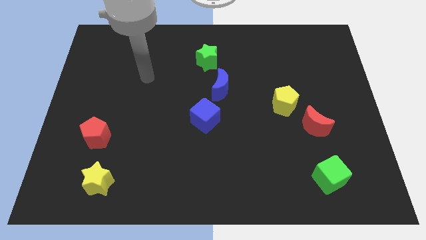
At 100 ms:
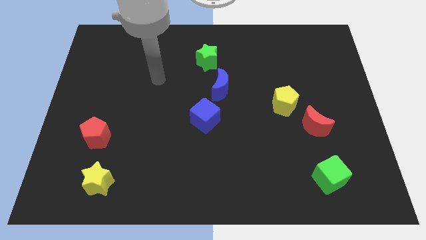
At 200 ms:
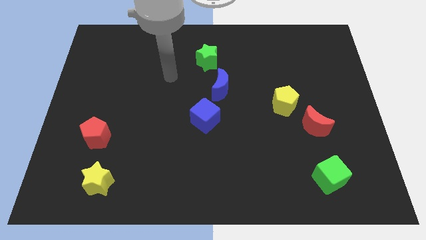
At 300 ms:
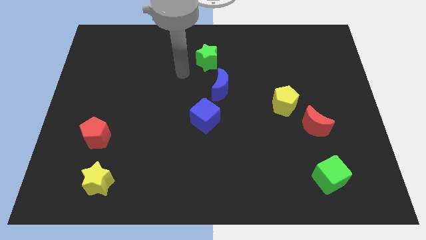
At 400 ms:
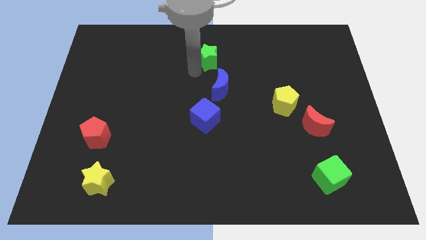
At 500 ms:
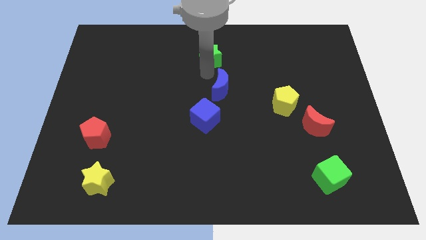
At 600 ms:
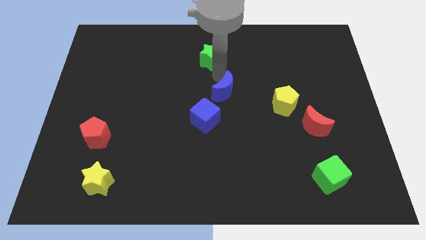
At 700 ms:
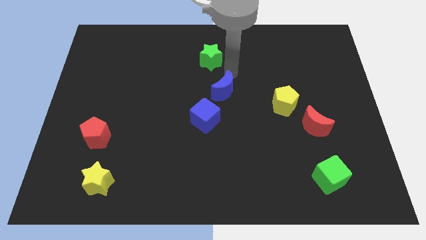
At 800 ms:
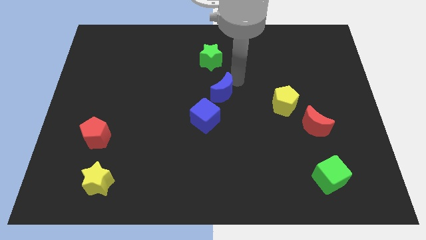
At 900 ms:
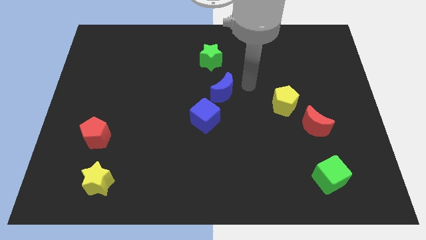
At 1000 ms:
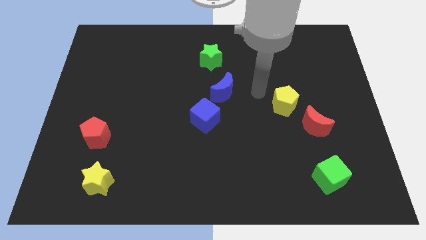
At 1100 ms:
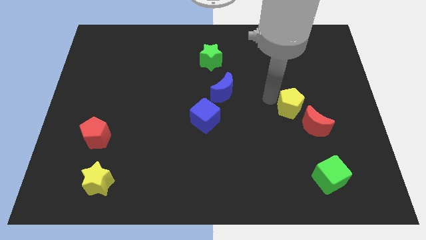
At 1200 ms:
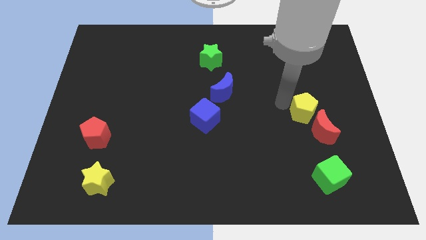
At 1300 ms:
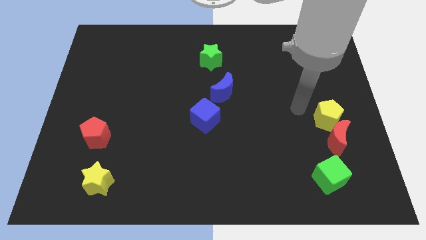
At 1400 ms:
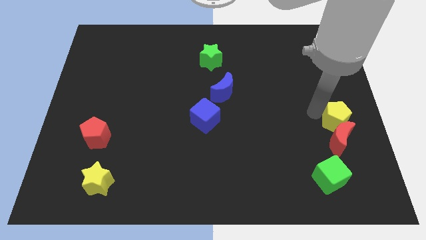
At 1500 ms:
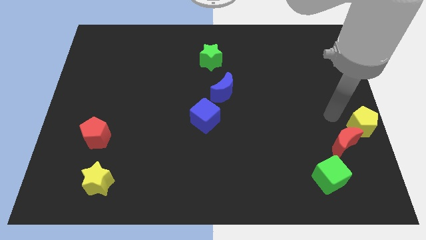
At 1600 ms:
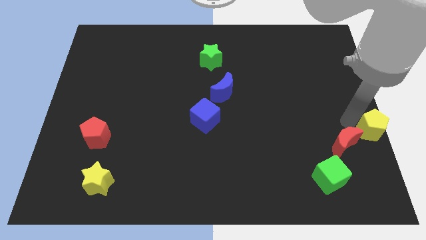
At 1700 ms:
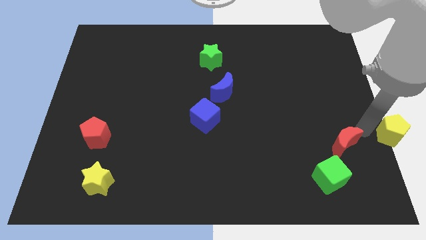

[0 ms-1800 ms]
separate the red moon from the yellow pentagon

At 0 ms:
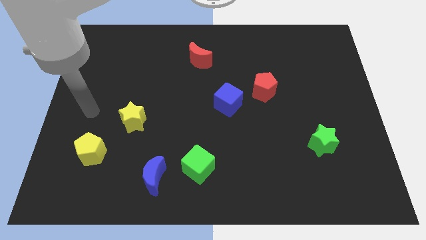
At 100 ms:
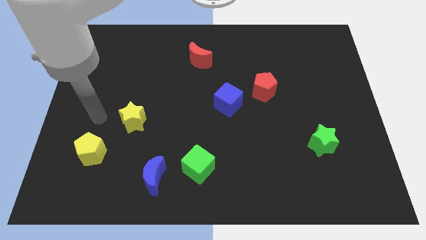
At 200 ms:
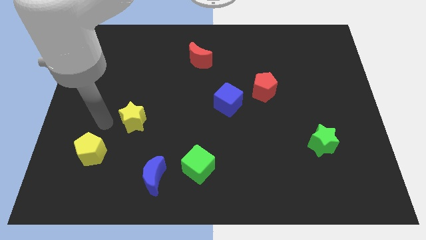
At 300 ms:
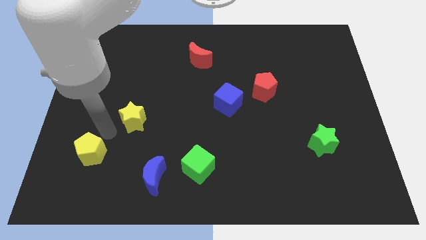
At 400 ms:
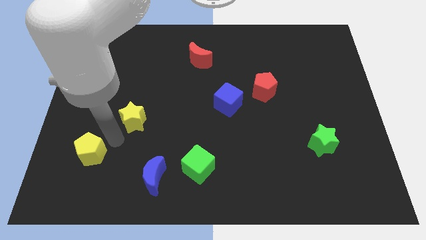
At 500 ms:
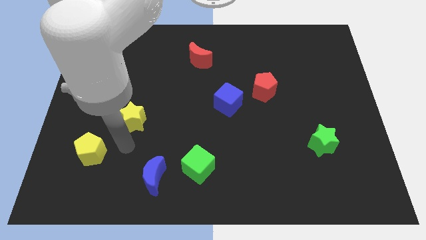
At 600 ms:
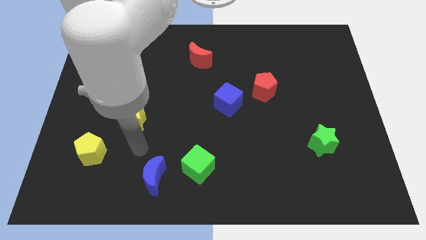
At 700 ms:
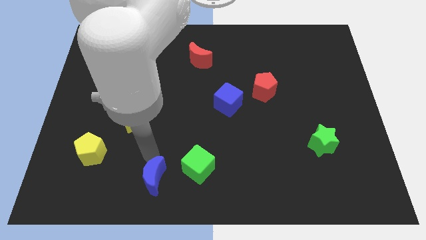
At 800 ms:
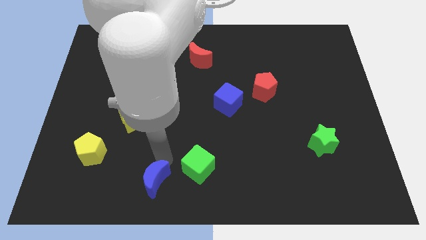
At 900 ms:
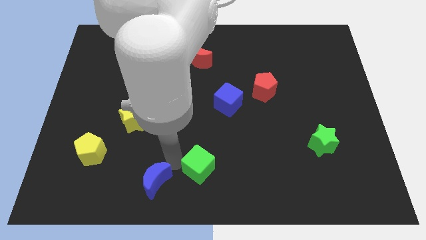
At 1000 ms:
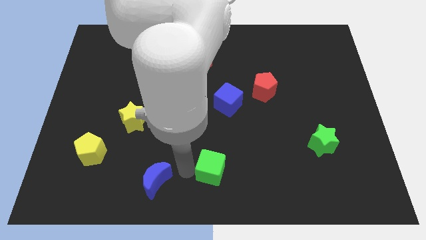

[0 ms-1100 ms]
move the blue moon away from the green cube

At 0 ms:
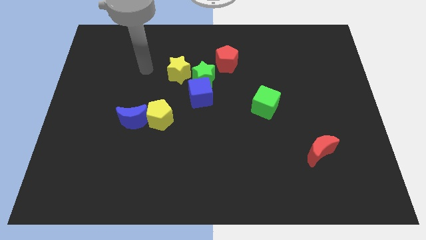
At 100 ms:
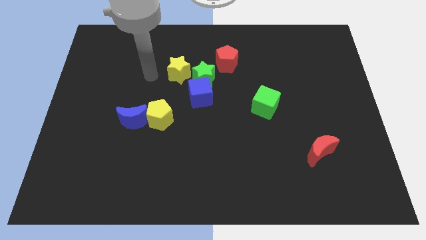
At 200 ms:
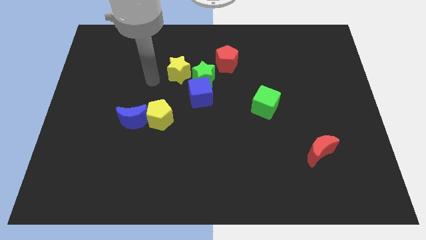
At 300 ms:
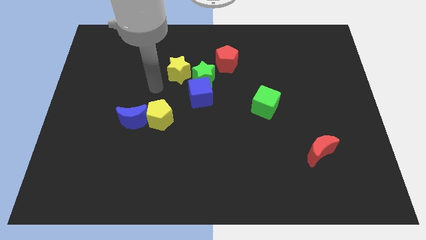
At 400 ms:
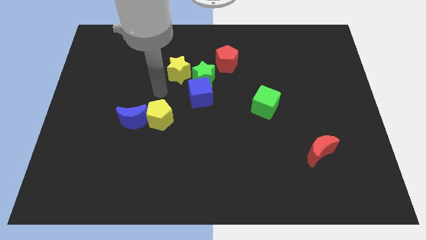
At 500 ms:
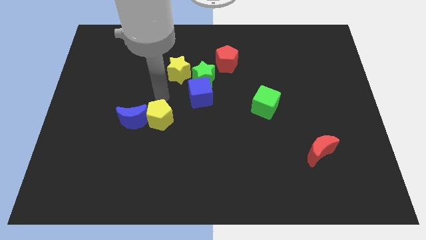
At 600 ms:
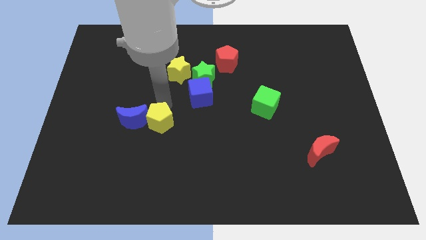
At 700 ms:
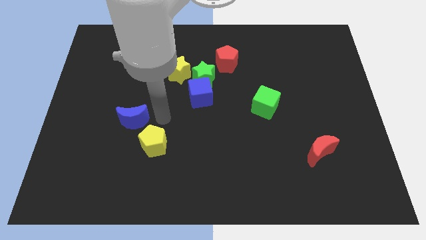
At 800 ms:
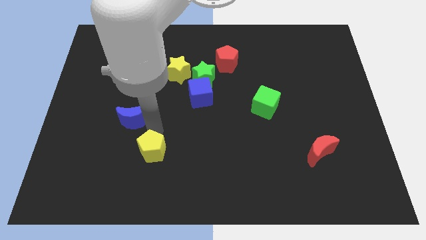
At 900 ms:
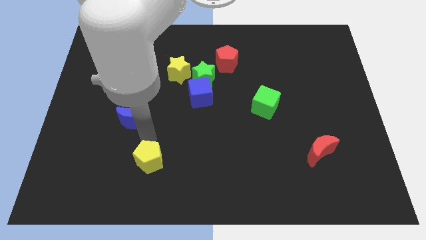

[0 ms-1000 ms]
pull the blue moon apart from the yellow pentagon

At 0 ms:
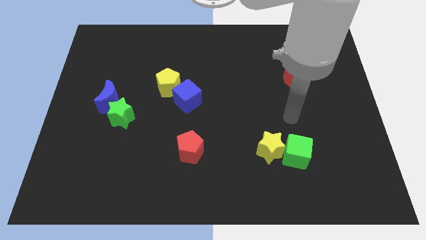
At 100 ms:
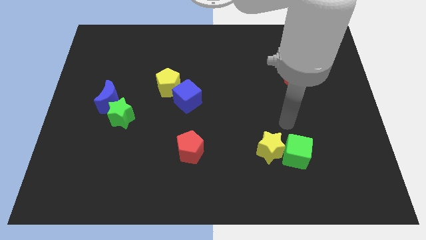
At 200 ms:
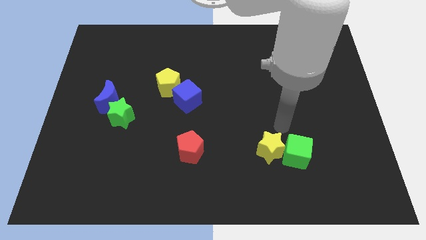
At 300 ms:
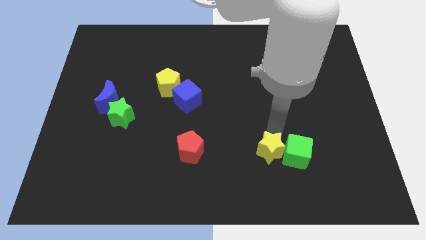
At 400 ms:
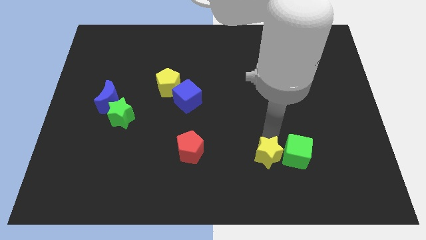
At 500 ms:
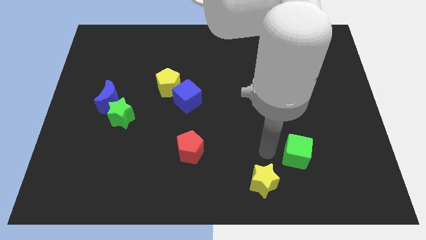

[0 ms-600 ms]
separate the green cube from the yellow star

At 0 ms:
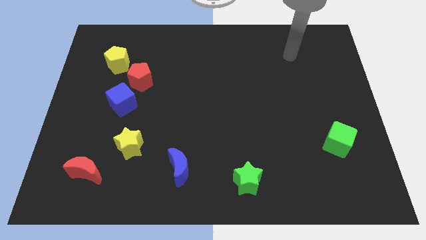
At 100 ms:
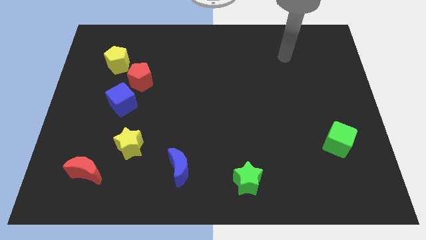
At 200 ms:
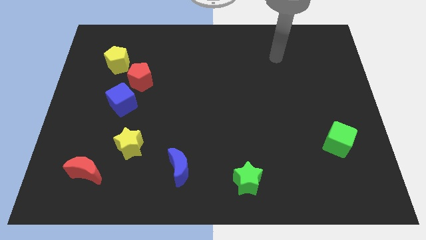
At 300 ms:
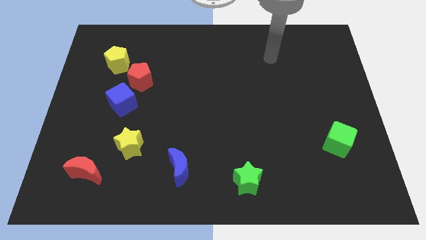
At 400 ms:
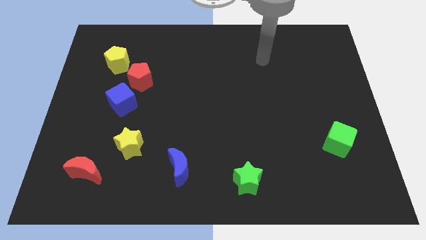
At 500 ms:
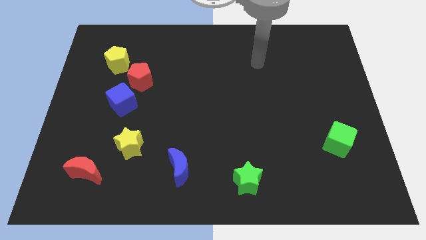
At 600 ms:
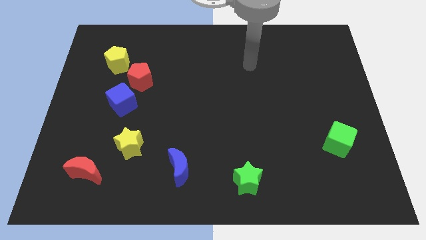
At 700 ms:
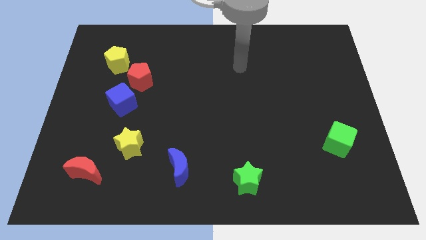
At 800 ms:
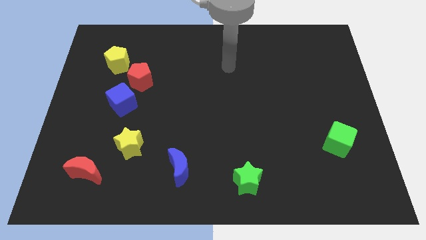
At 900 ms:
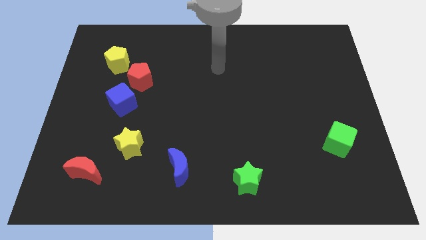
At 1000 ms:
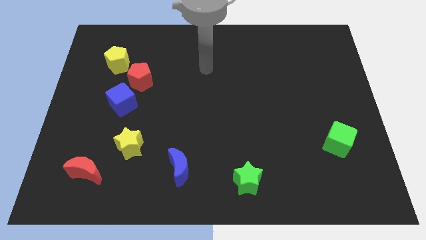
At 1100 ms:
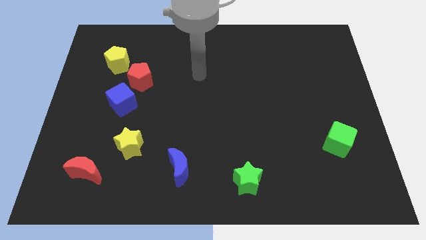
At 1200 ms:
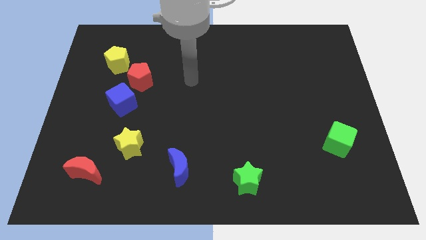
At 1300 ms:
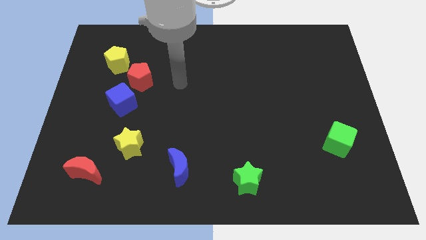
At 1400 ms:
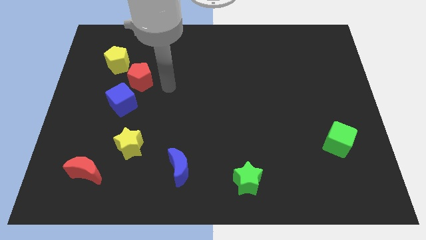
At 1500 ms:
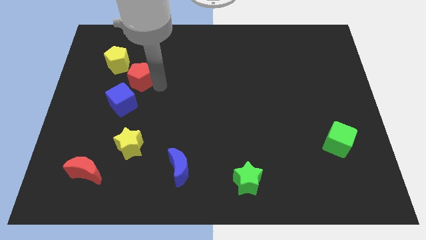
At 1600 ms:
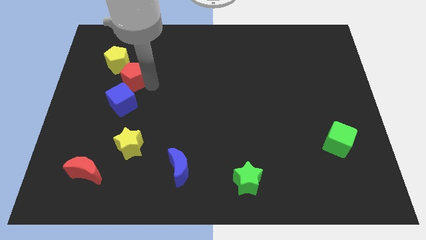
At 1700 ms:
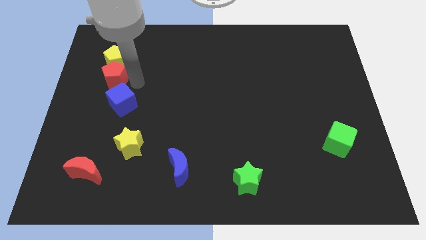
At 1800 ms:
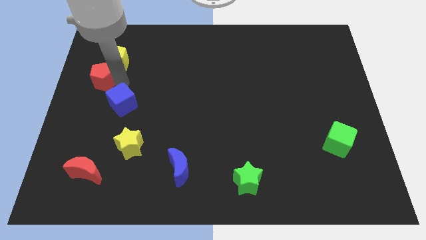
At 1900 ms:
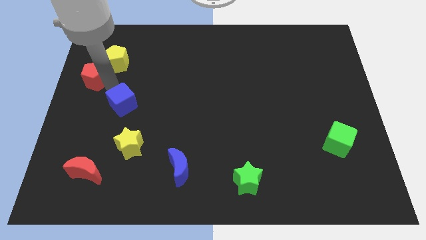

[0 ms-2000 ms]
move the blue cube away from the red pentagon

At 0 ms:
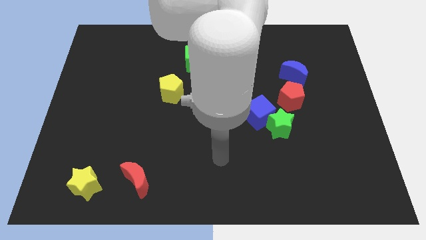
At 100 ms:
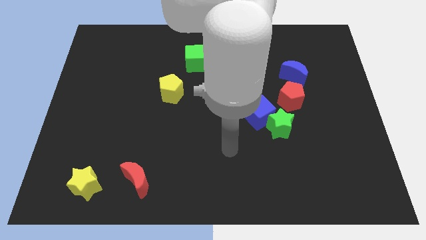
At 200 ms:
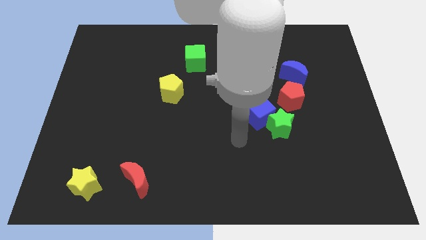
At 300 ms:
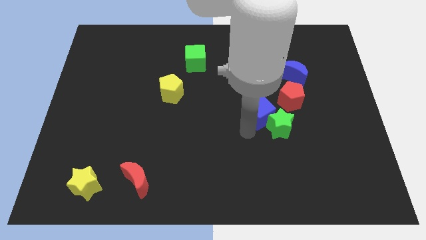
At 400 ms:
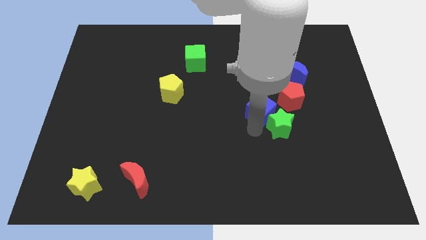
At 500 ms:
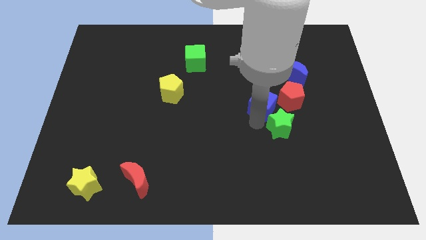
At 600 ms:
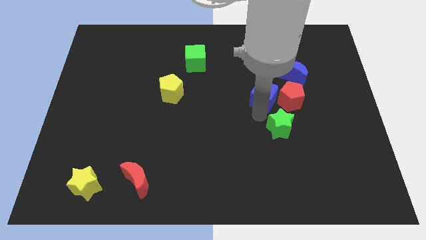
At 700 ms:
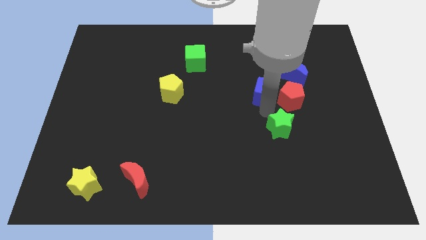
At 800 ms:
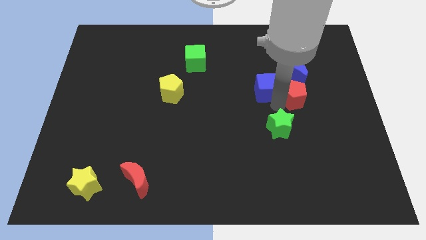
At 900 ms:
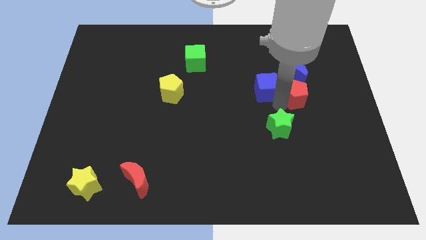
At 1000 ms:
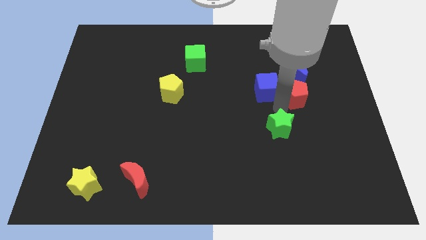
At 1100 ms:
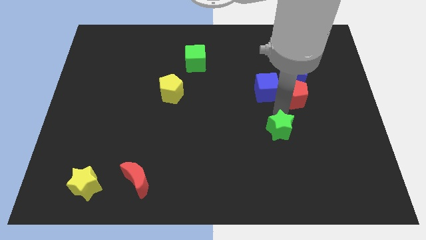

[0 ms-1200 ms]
move the green star away from the blue cube and red pentagon

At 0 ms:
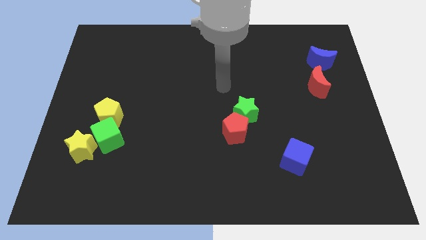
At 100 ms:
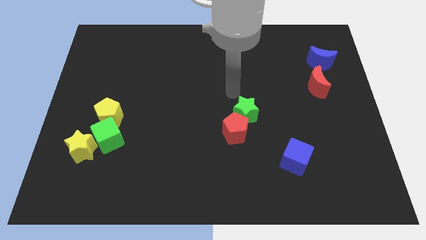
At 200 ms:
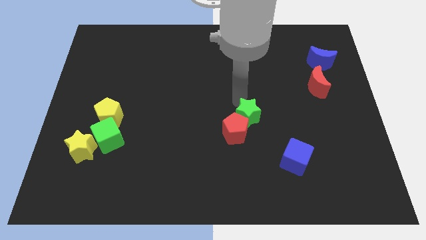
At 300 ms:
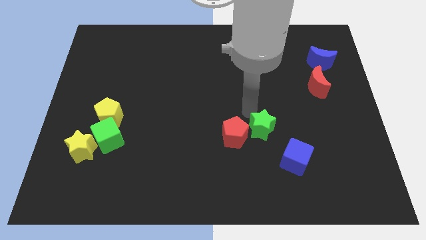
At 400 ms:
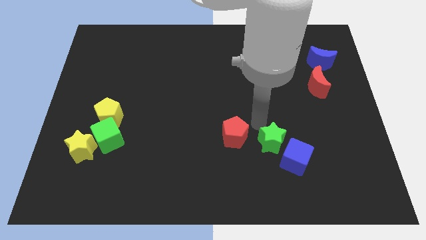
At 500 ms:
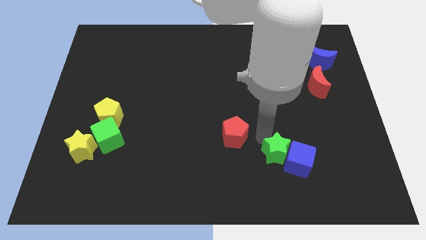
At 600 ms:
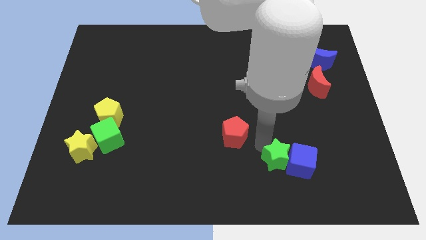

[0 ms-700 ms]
pull the red pentagon apart from the green star

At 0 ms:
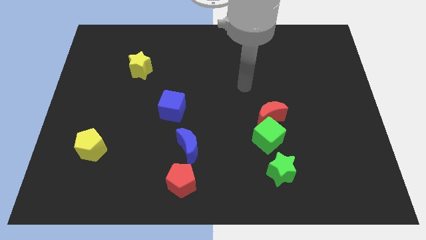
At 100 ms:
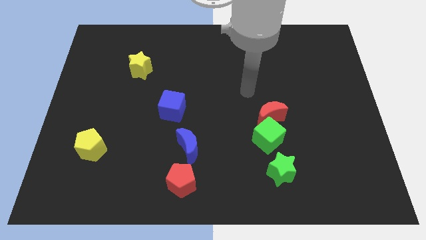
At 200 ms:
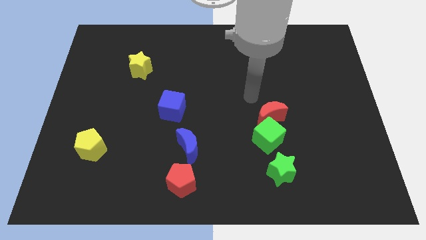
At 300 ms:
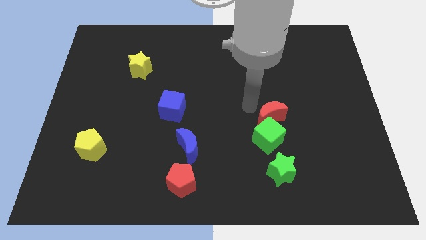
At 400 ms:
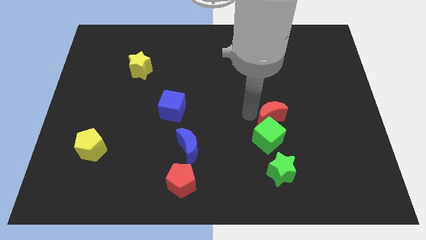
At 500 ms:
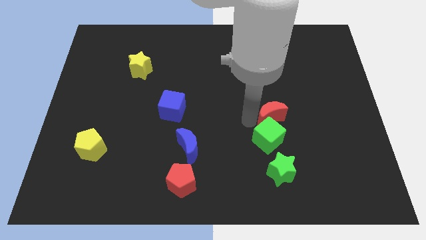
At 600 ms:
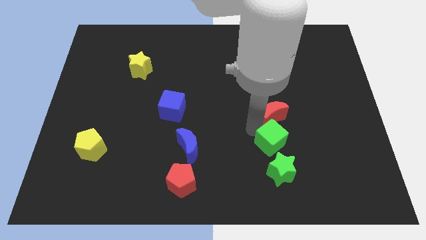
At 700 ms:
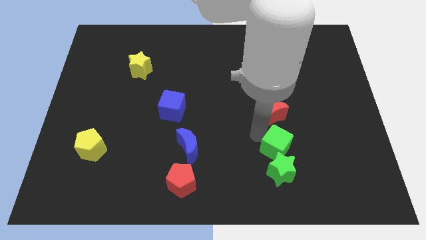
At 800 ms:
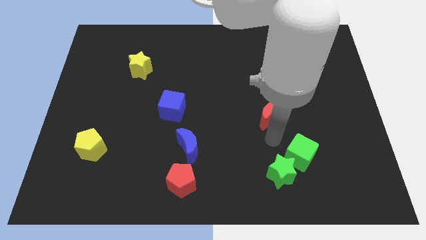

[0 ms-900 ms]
separate the red moon from the green cube

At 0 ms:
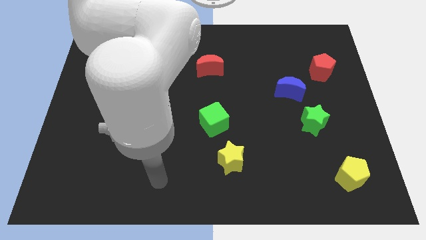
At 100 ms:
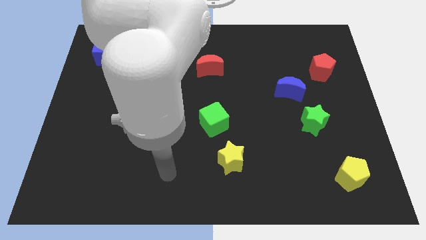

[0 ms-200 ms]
move the blue moon away from the green star
